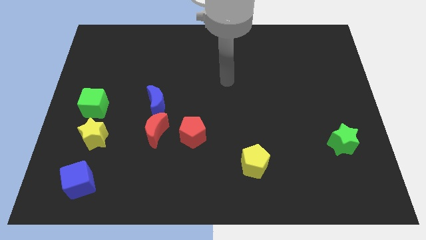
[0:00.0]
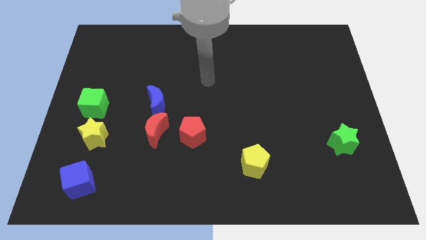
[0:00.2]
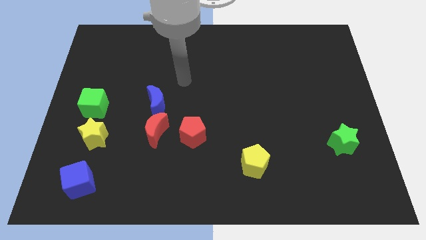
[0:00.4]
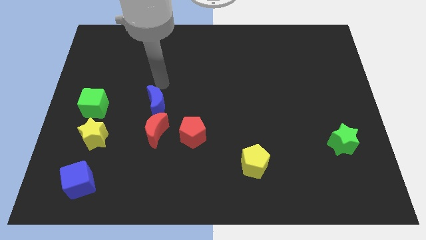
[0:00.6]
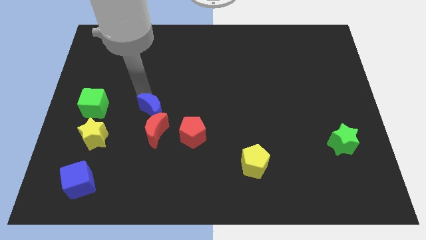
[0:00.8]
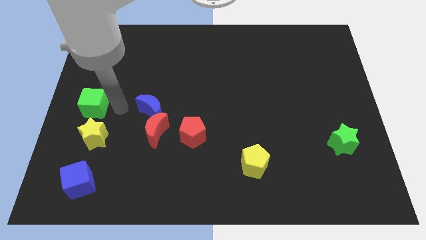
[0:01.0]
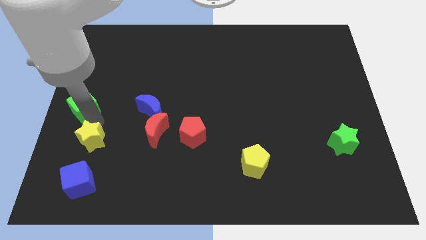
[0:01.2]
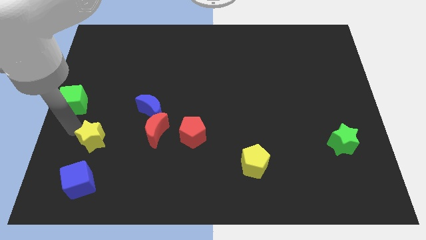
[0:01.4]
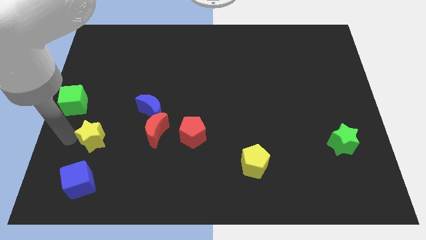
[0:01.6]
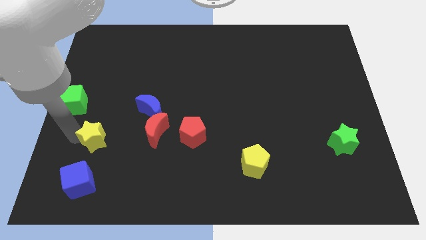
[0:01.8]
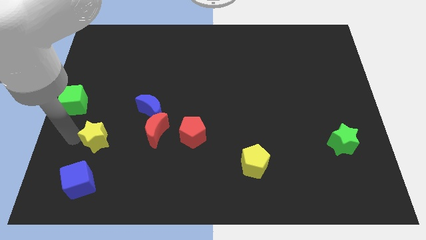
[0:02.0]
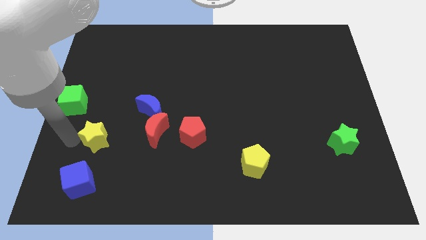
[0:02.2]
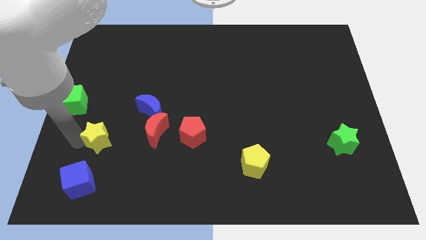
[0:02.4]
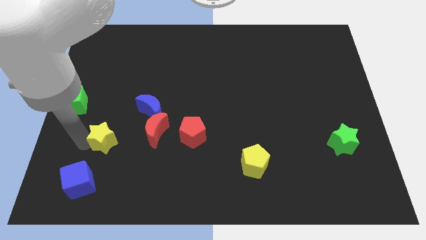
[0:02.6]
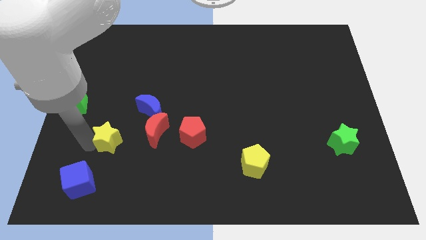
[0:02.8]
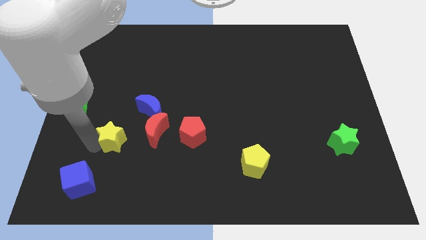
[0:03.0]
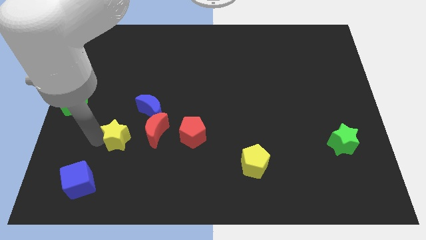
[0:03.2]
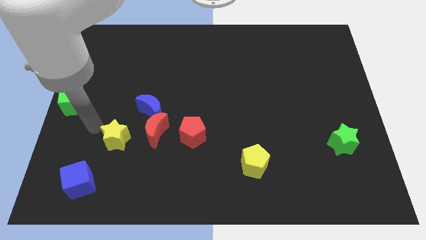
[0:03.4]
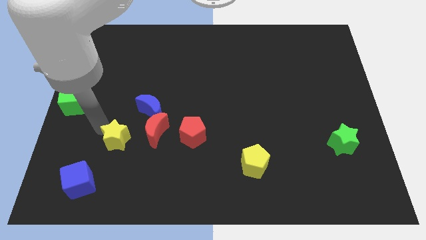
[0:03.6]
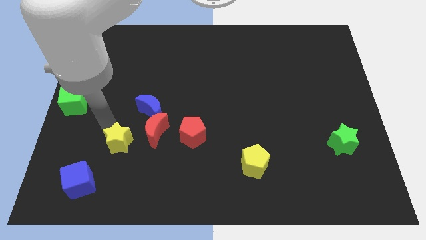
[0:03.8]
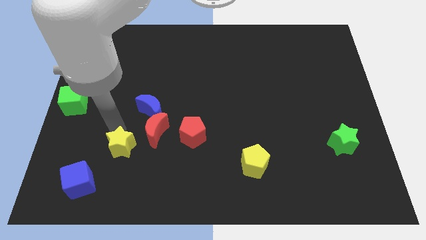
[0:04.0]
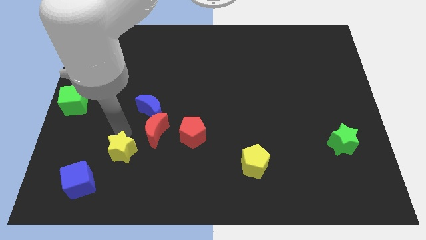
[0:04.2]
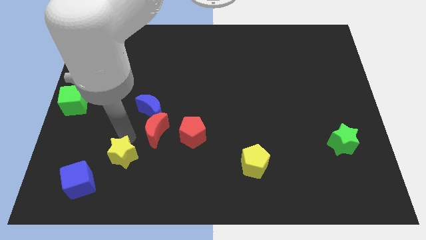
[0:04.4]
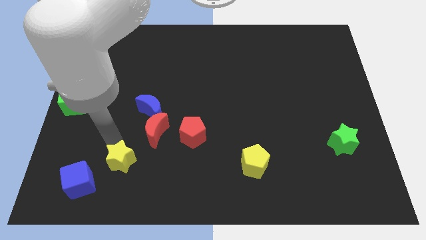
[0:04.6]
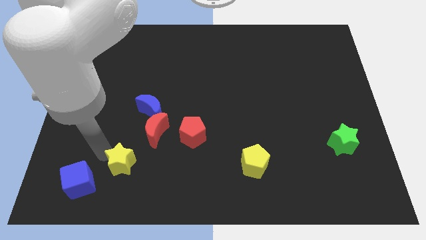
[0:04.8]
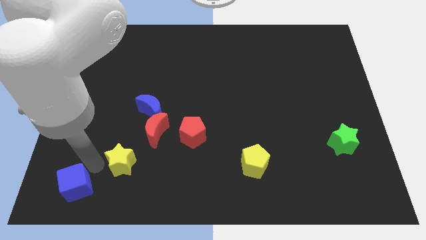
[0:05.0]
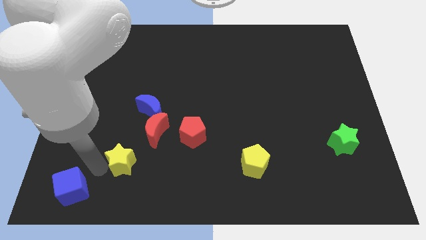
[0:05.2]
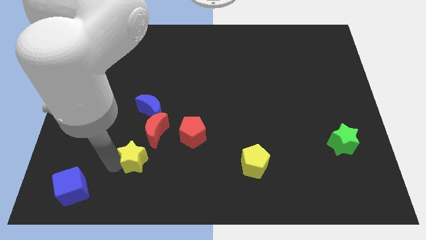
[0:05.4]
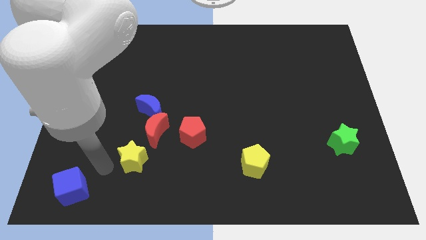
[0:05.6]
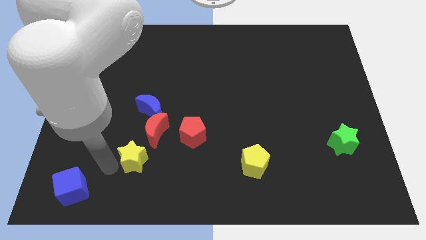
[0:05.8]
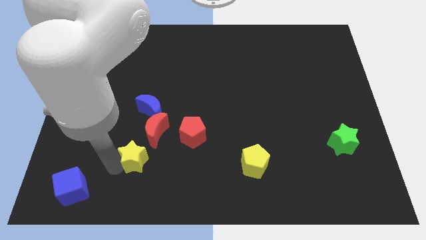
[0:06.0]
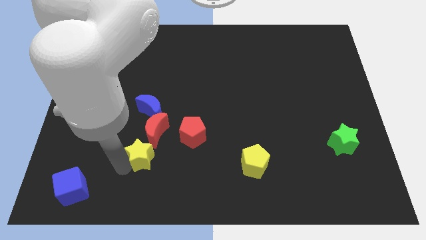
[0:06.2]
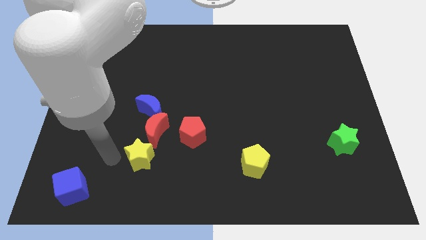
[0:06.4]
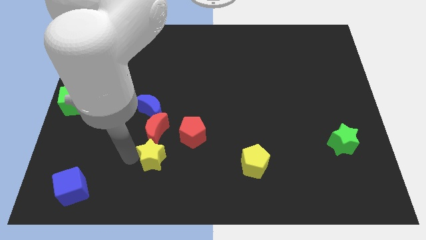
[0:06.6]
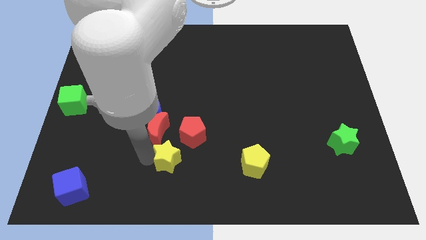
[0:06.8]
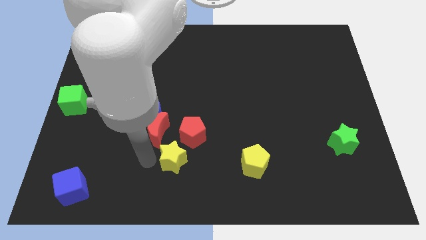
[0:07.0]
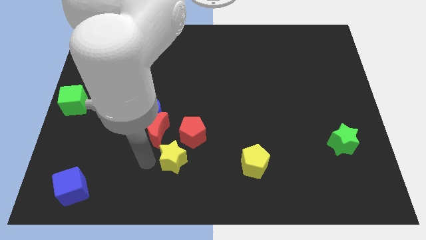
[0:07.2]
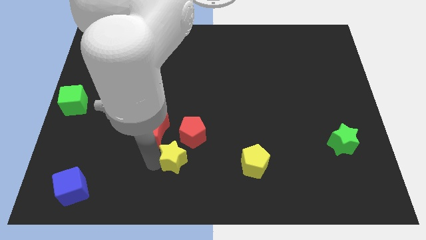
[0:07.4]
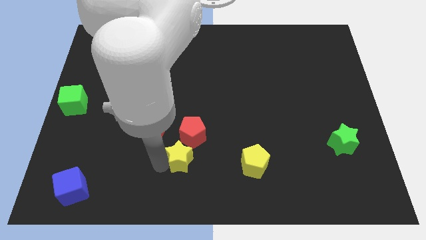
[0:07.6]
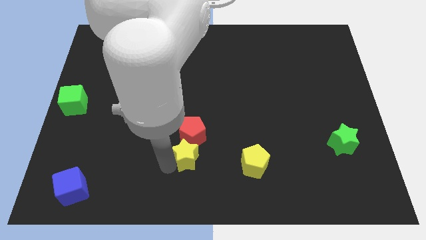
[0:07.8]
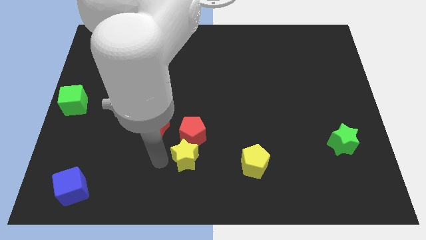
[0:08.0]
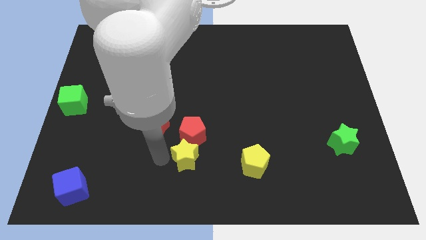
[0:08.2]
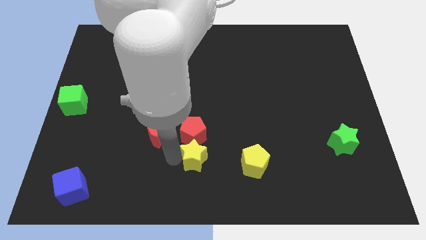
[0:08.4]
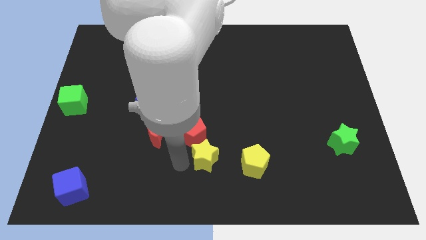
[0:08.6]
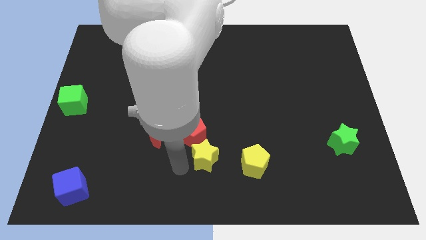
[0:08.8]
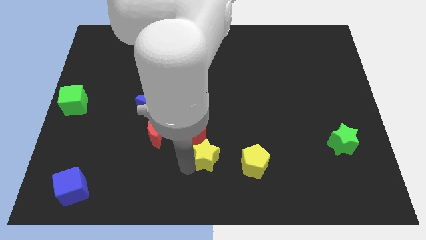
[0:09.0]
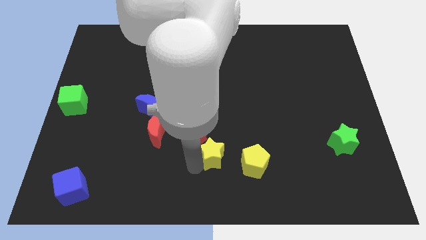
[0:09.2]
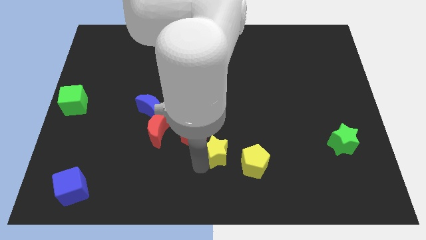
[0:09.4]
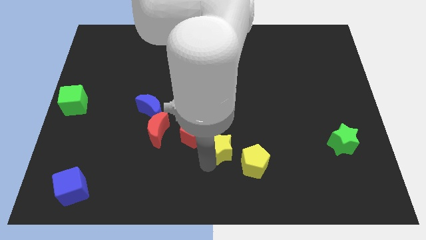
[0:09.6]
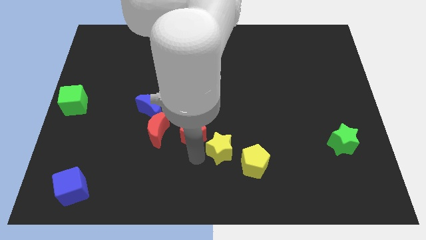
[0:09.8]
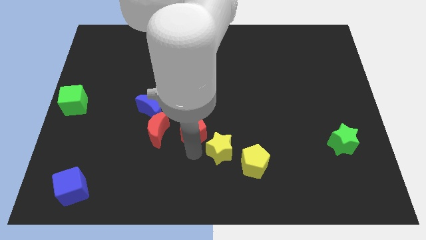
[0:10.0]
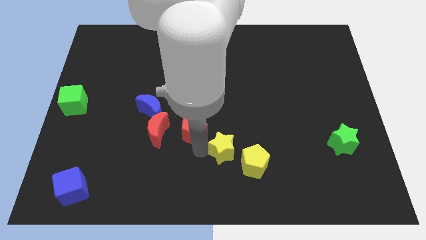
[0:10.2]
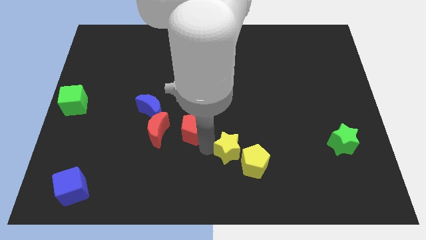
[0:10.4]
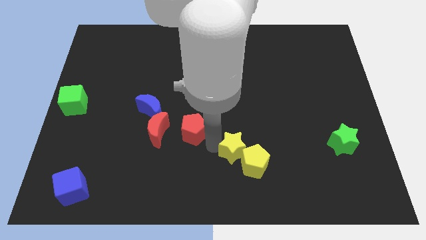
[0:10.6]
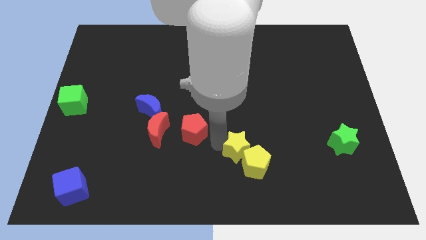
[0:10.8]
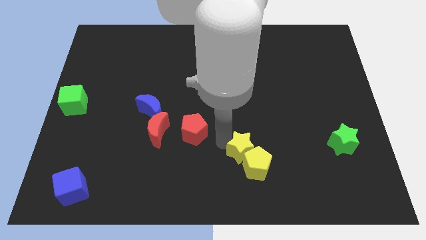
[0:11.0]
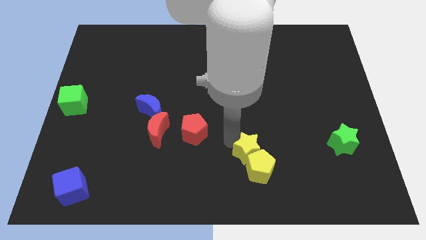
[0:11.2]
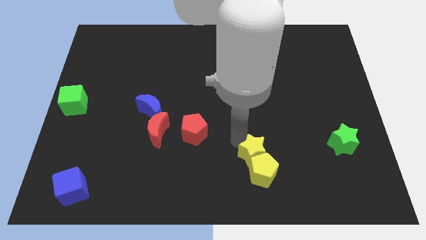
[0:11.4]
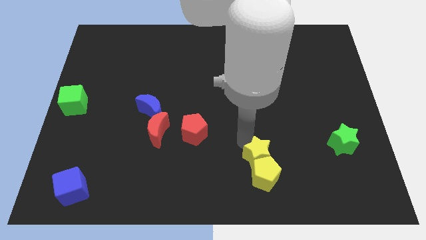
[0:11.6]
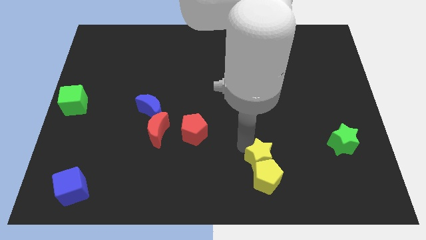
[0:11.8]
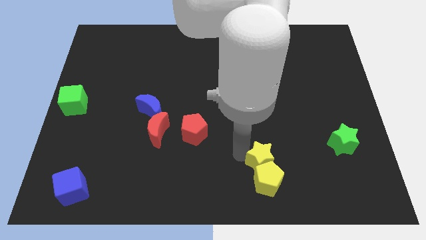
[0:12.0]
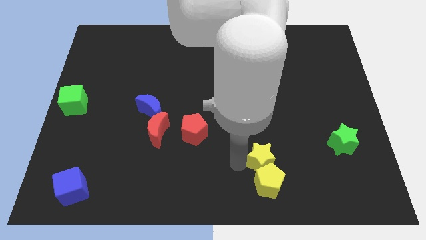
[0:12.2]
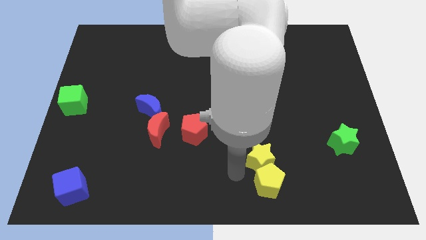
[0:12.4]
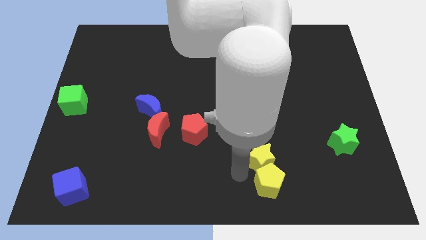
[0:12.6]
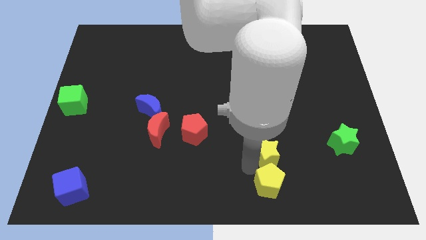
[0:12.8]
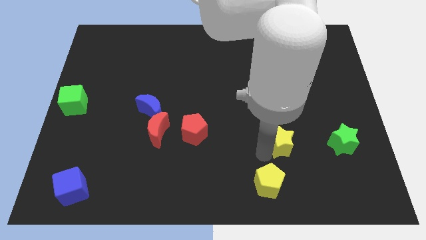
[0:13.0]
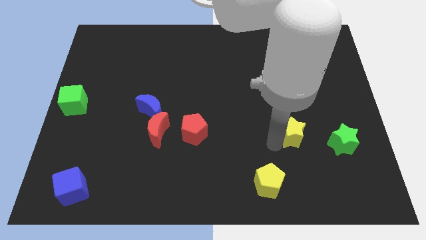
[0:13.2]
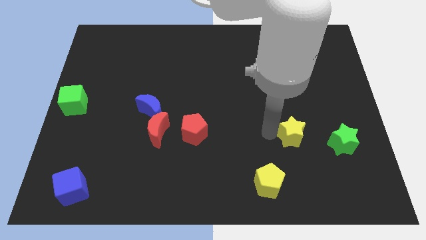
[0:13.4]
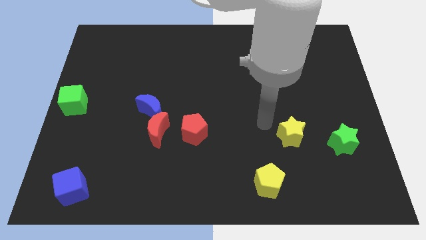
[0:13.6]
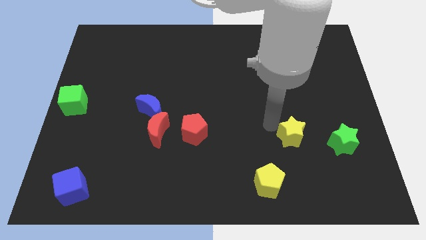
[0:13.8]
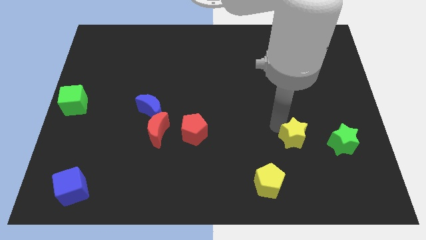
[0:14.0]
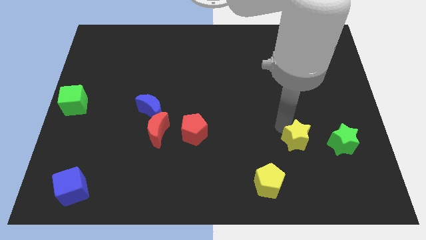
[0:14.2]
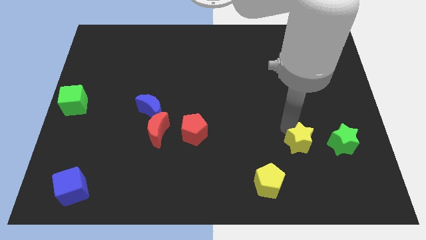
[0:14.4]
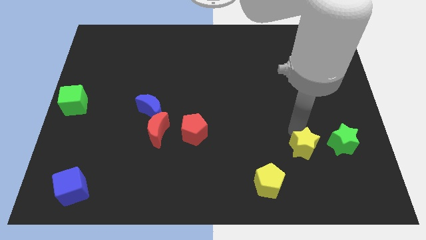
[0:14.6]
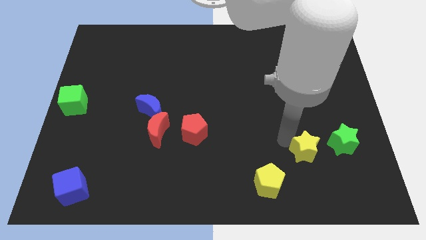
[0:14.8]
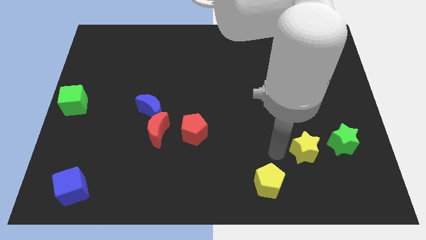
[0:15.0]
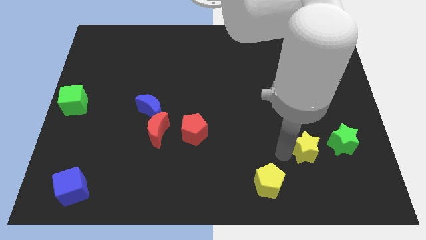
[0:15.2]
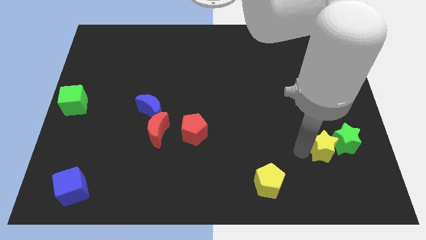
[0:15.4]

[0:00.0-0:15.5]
put the yellow star next to the green star

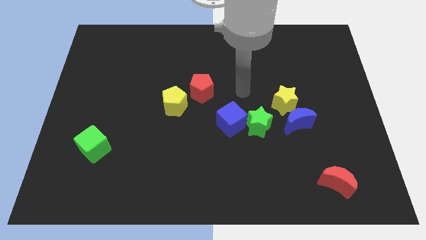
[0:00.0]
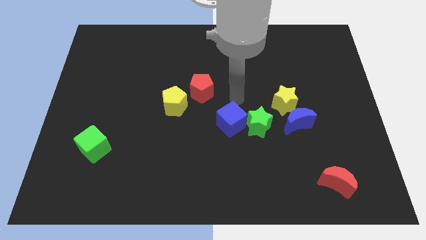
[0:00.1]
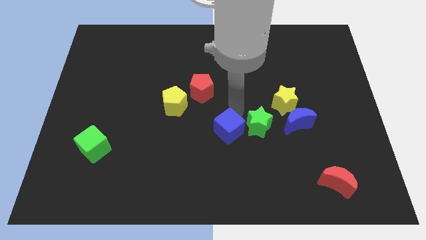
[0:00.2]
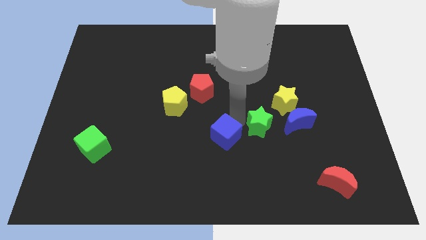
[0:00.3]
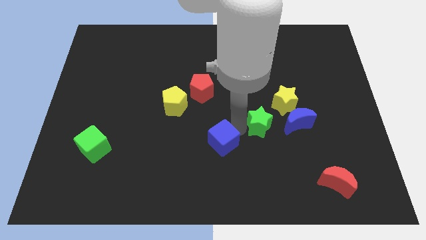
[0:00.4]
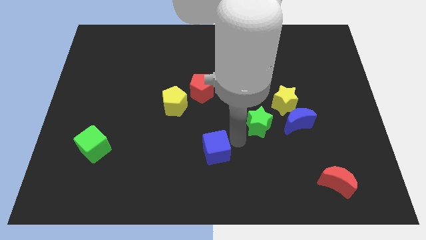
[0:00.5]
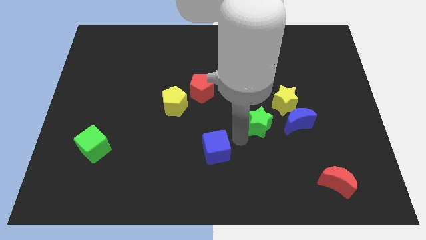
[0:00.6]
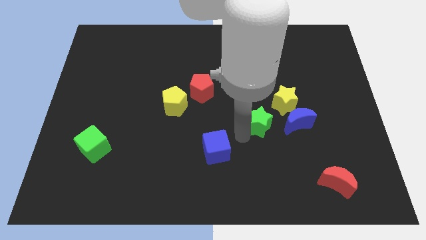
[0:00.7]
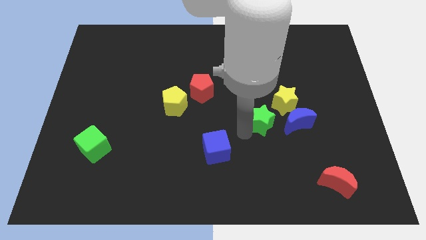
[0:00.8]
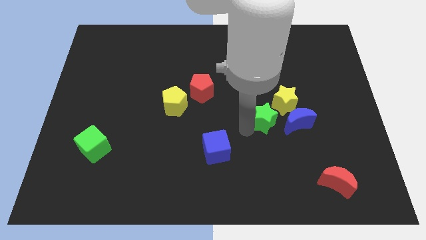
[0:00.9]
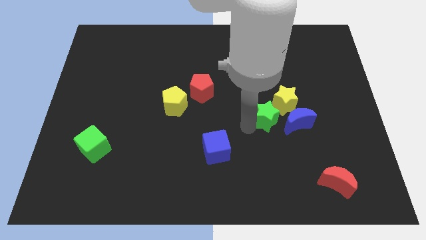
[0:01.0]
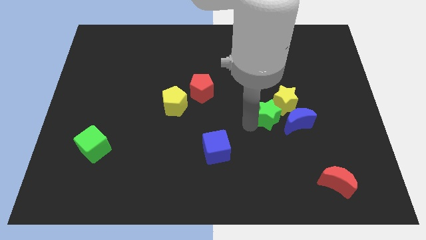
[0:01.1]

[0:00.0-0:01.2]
slide the green star to the yellow star
